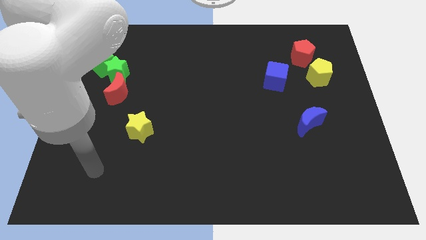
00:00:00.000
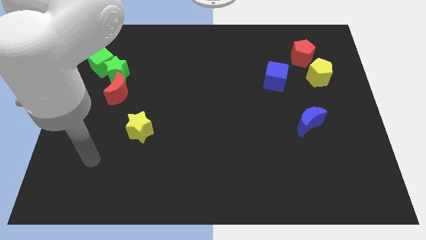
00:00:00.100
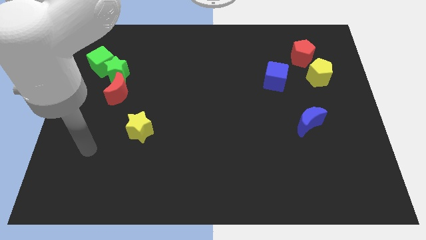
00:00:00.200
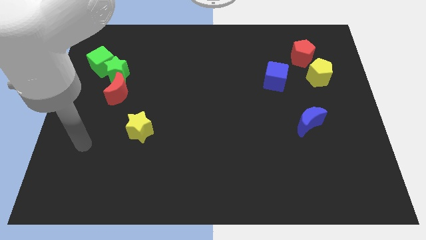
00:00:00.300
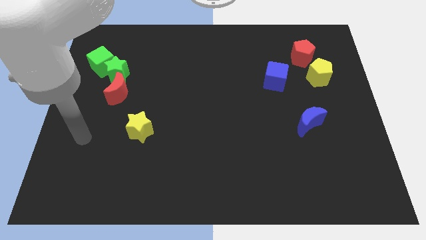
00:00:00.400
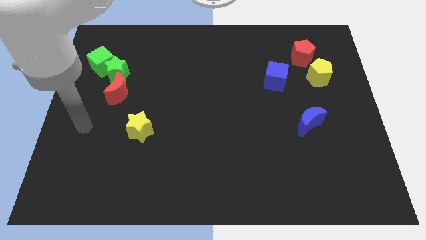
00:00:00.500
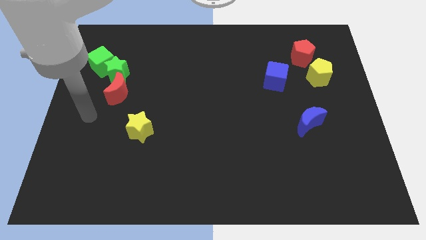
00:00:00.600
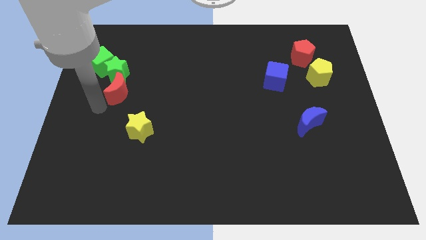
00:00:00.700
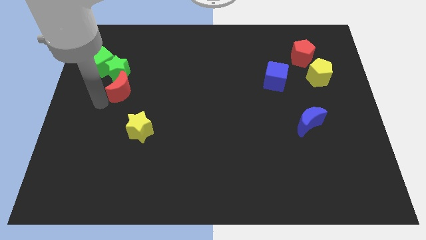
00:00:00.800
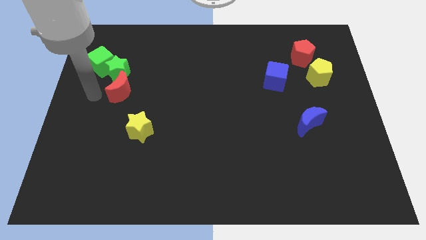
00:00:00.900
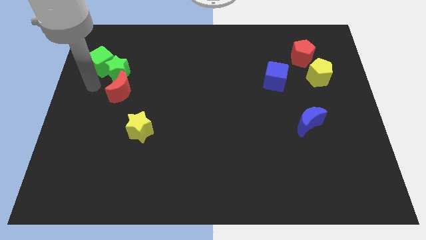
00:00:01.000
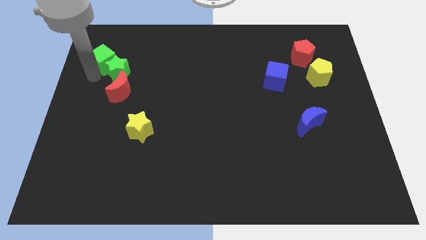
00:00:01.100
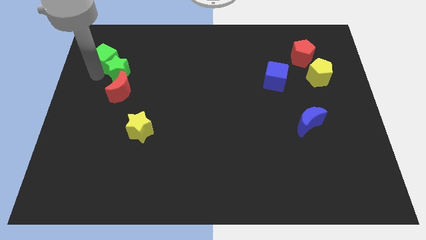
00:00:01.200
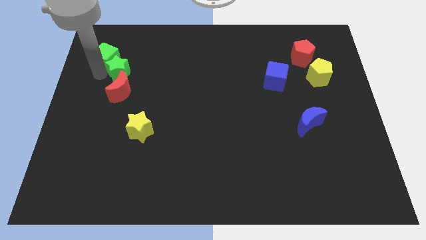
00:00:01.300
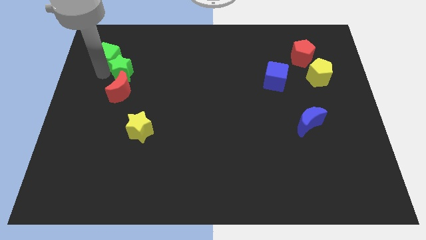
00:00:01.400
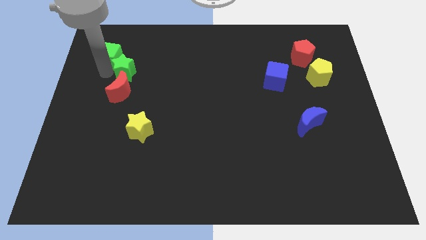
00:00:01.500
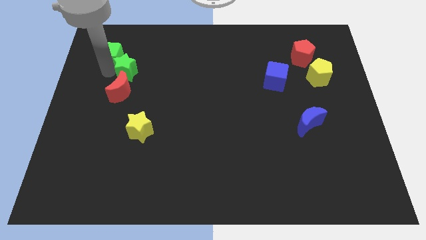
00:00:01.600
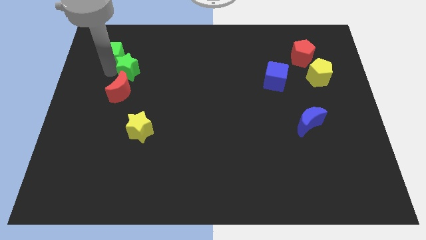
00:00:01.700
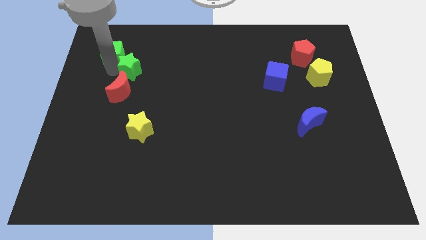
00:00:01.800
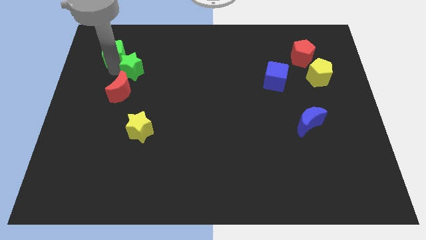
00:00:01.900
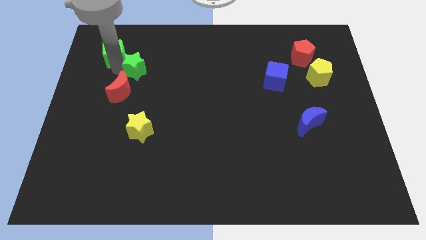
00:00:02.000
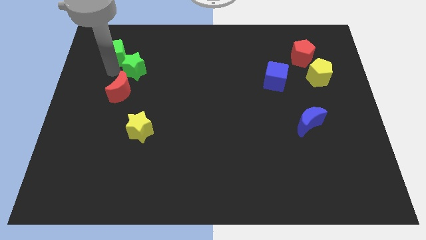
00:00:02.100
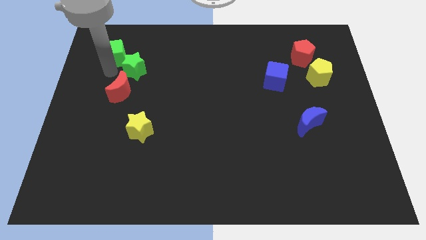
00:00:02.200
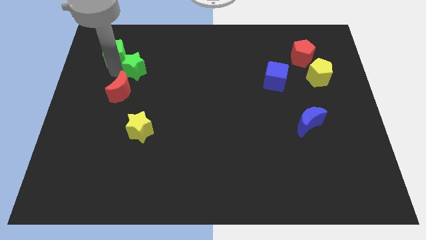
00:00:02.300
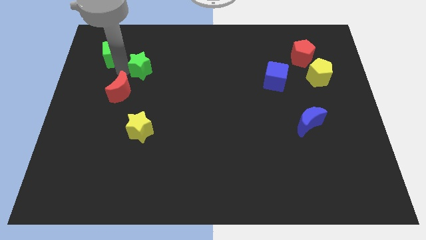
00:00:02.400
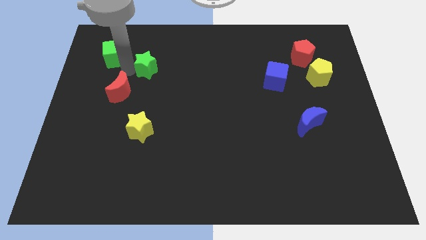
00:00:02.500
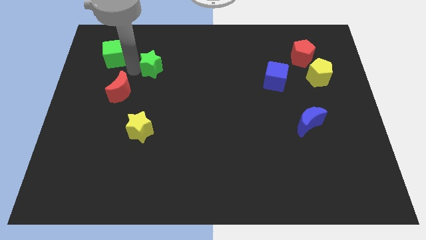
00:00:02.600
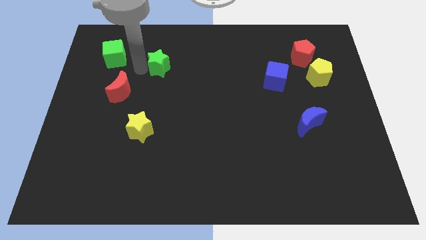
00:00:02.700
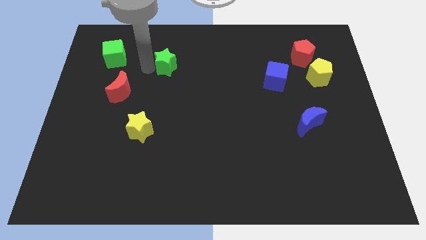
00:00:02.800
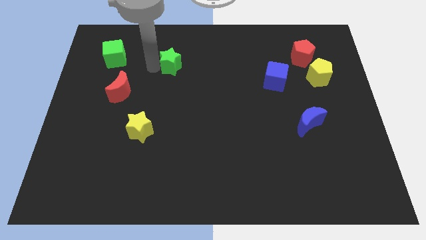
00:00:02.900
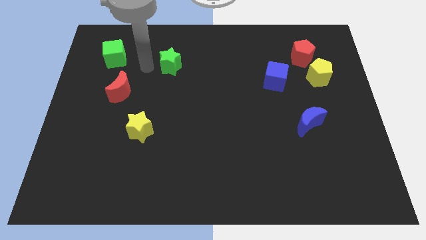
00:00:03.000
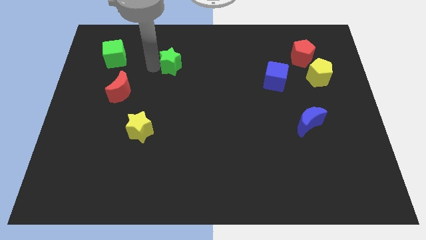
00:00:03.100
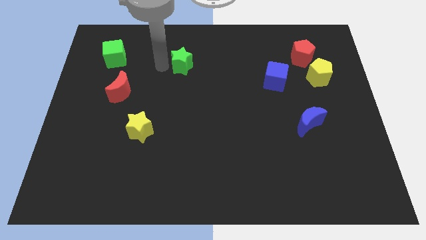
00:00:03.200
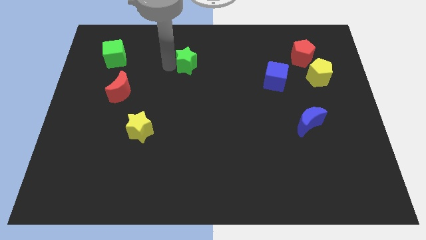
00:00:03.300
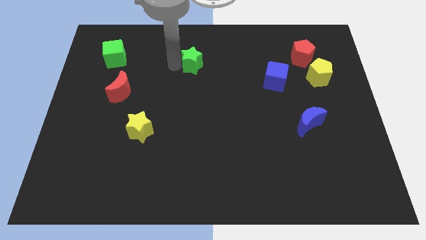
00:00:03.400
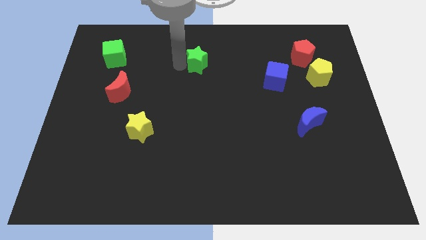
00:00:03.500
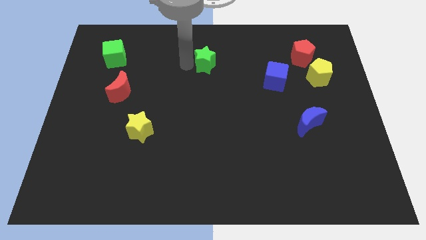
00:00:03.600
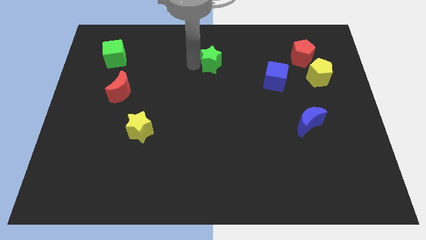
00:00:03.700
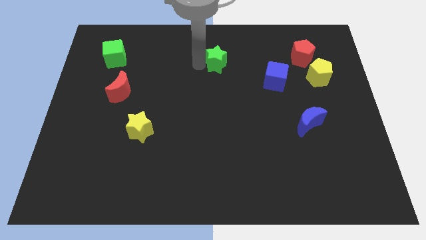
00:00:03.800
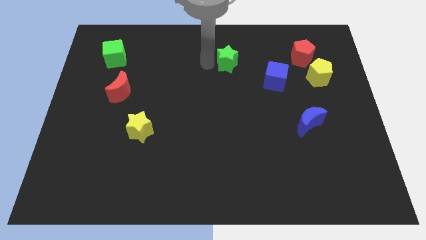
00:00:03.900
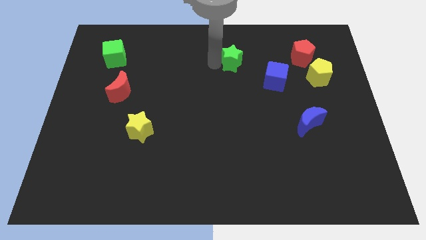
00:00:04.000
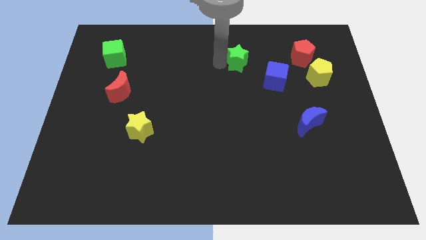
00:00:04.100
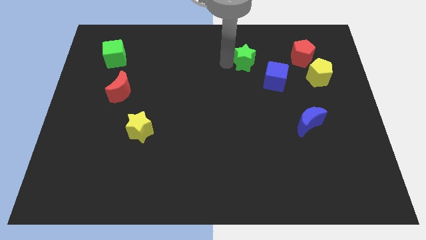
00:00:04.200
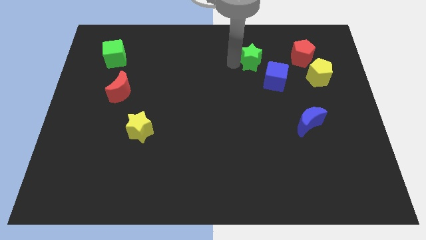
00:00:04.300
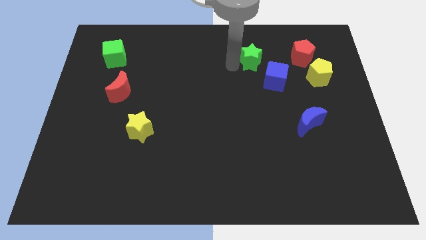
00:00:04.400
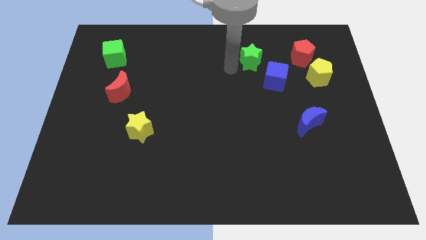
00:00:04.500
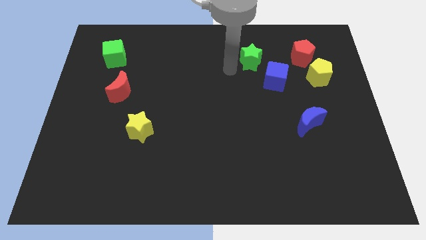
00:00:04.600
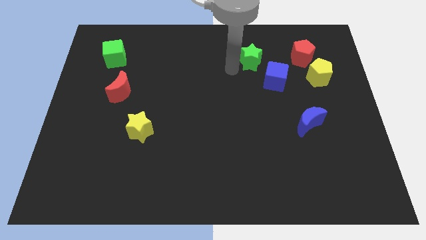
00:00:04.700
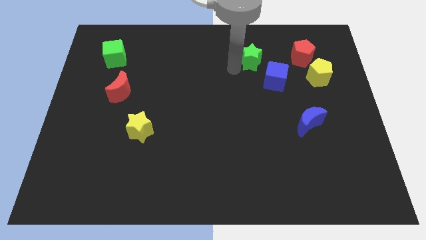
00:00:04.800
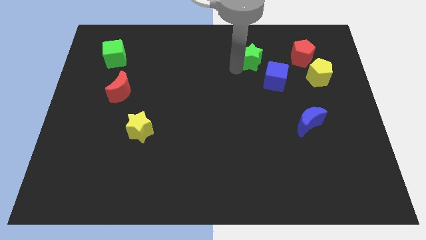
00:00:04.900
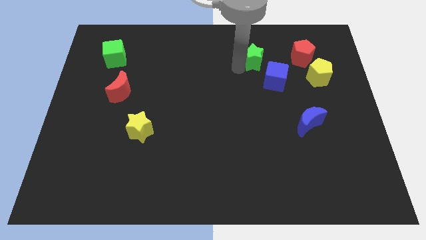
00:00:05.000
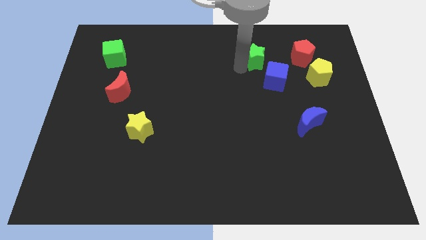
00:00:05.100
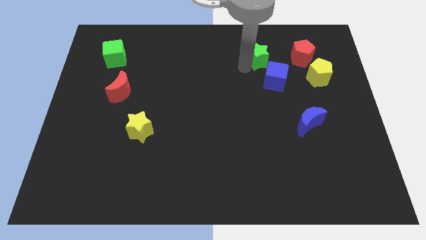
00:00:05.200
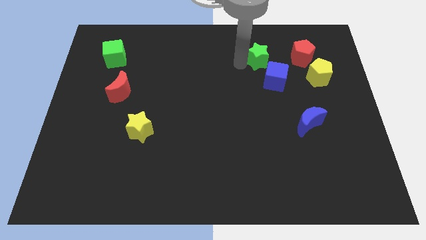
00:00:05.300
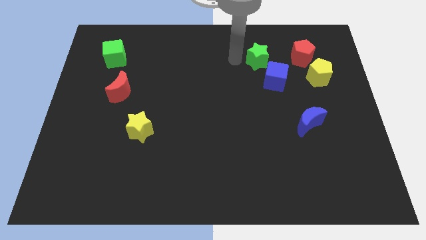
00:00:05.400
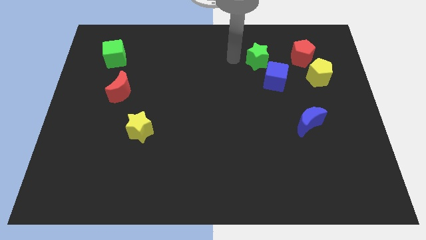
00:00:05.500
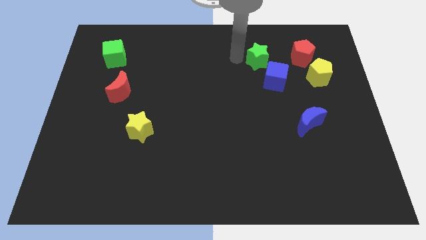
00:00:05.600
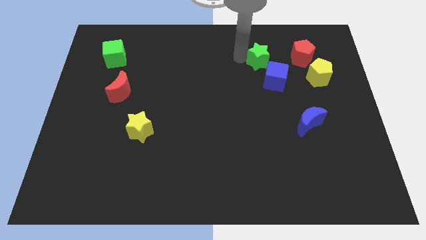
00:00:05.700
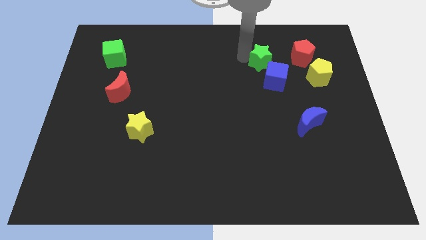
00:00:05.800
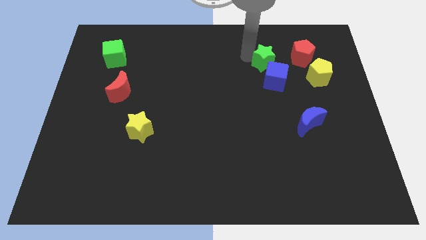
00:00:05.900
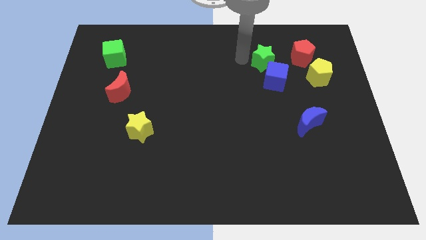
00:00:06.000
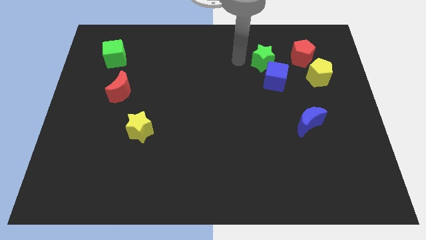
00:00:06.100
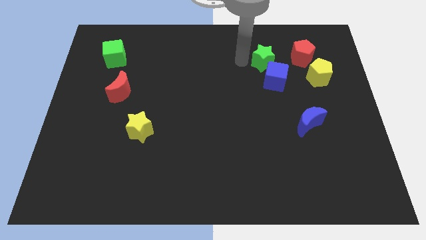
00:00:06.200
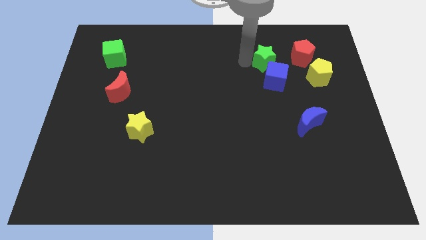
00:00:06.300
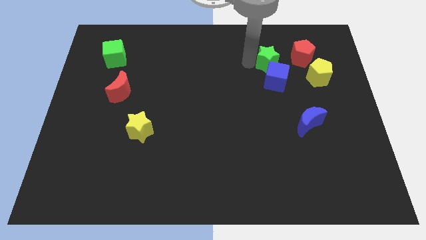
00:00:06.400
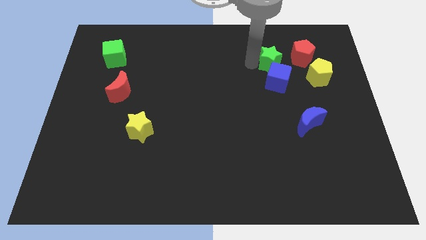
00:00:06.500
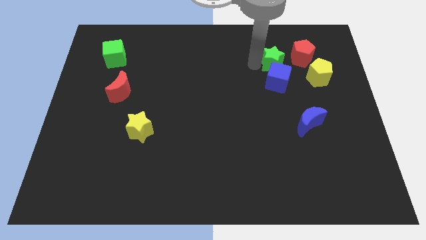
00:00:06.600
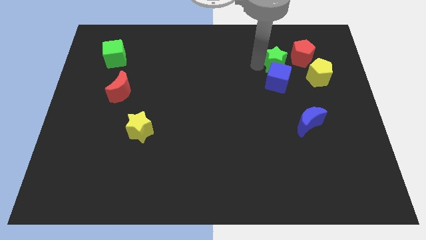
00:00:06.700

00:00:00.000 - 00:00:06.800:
slide the green star diagonally up and to the left of the yellow pentagon

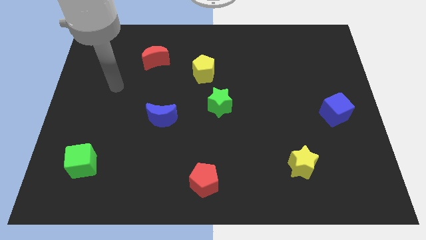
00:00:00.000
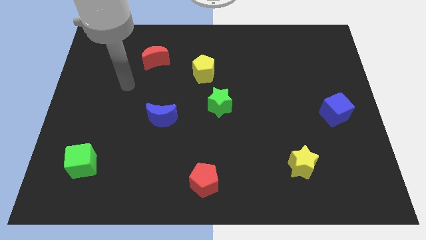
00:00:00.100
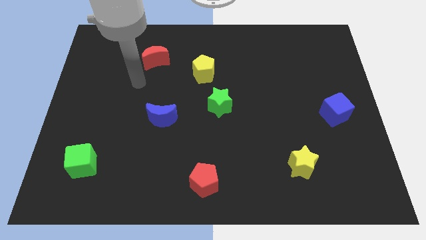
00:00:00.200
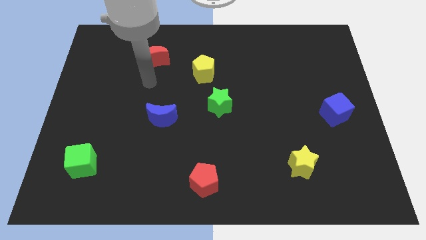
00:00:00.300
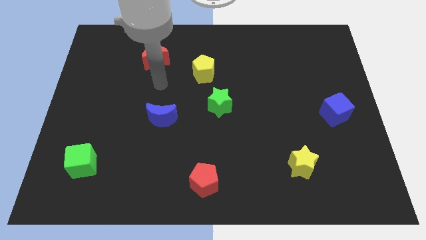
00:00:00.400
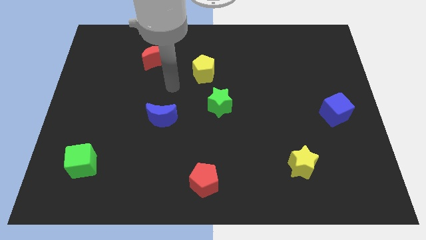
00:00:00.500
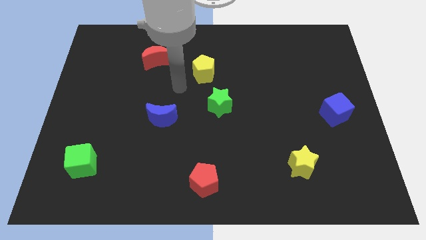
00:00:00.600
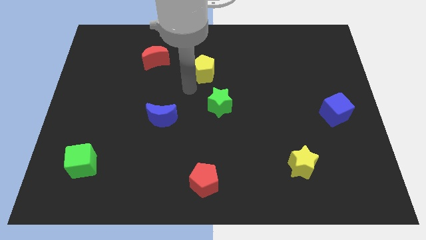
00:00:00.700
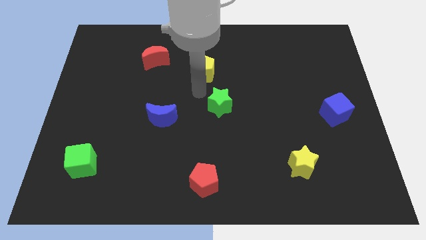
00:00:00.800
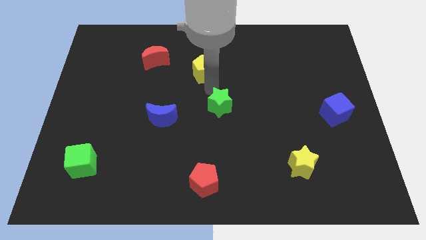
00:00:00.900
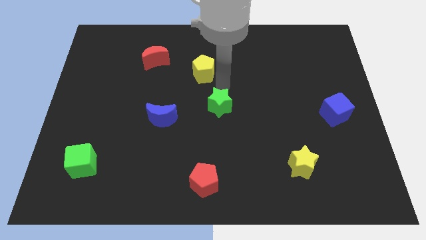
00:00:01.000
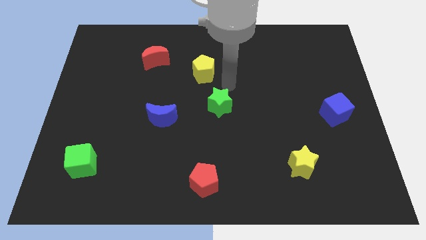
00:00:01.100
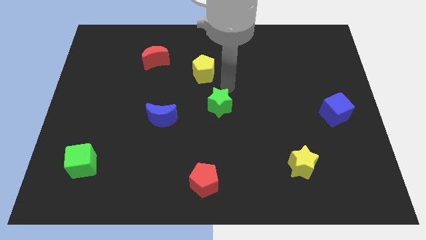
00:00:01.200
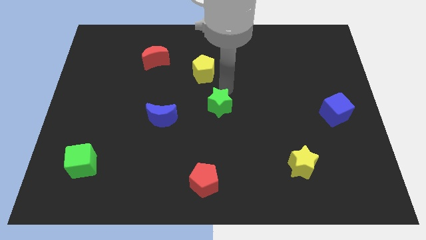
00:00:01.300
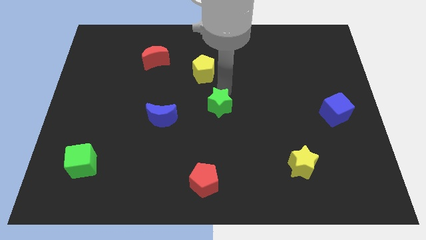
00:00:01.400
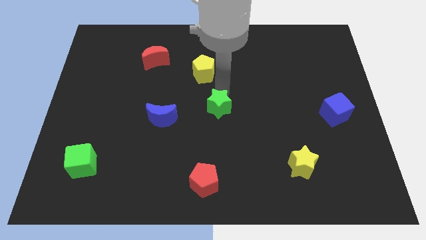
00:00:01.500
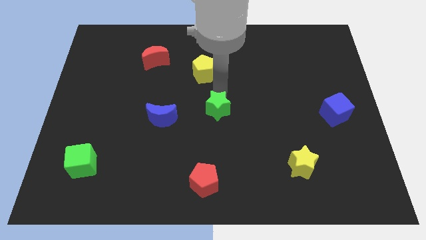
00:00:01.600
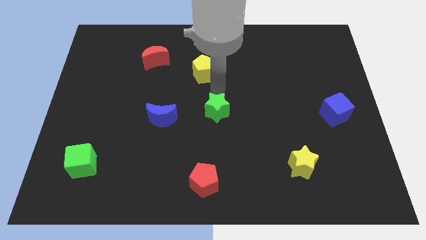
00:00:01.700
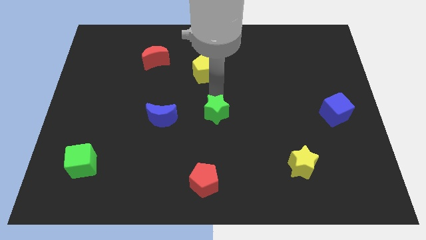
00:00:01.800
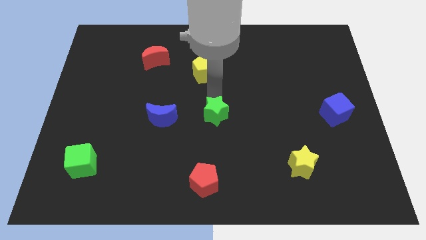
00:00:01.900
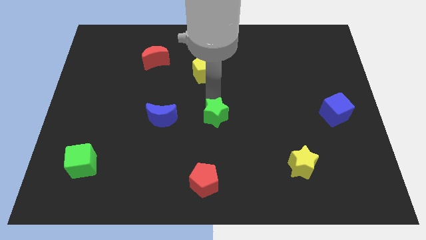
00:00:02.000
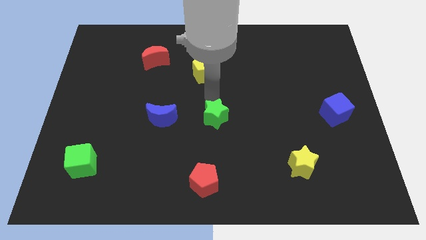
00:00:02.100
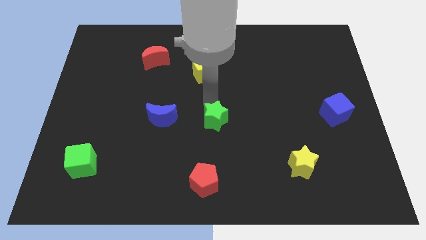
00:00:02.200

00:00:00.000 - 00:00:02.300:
slide the green star to the top of the red pentagon
